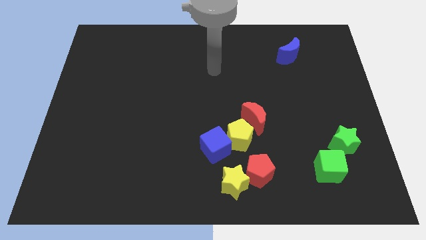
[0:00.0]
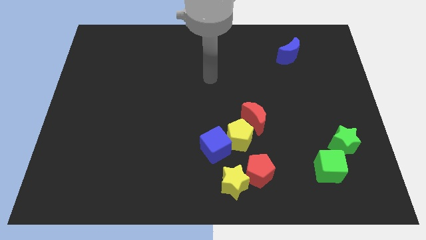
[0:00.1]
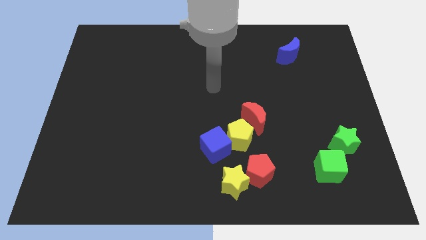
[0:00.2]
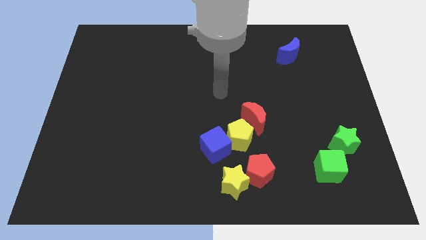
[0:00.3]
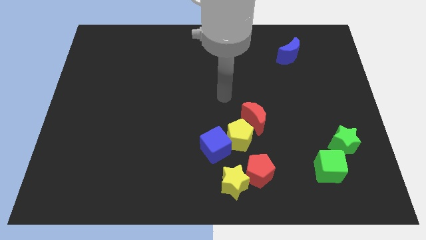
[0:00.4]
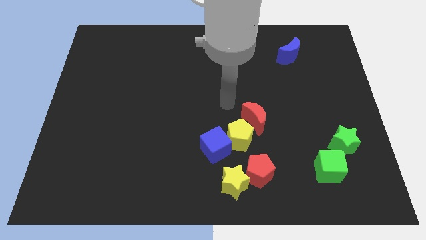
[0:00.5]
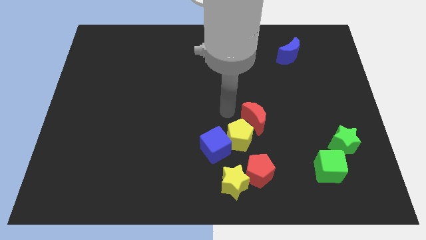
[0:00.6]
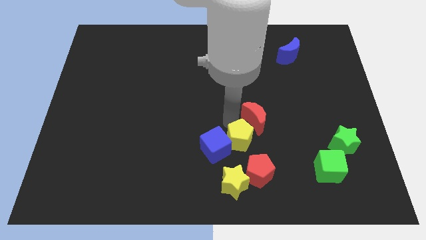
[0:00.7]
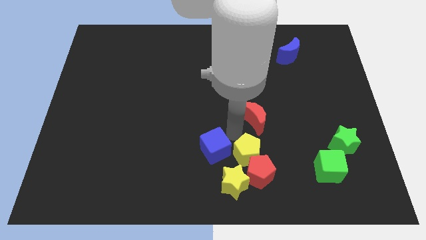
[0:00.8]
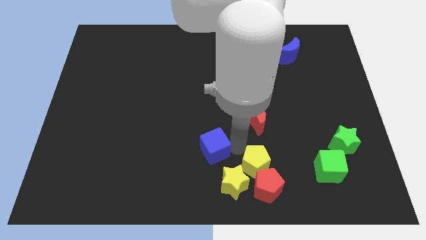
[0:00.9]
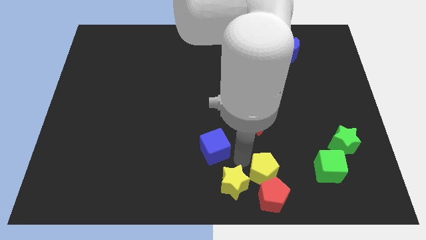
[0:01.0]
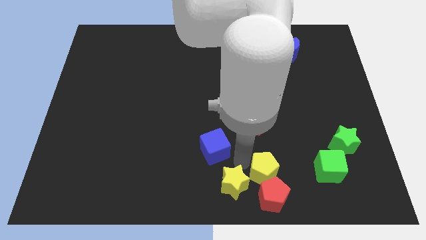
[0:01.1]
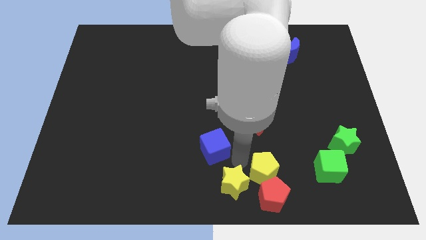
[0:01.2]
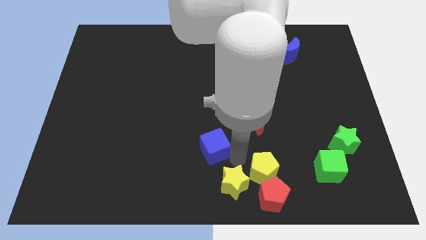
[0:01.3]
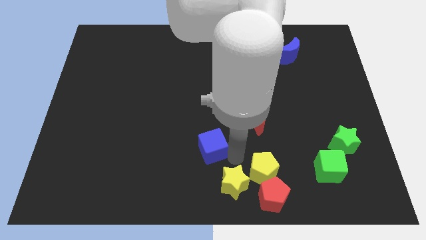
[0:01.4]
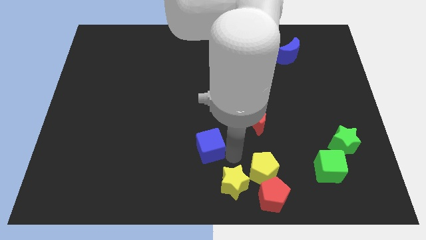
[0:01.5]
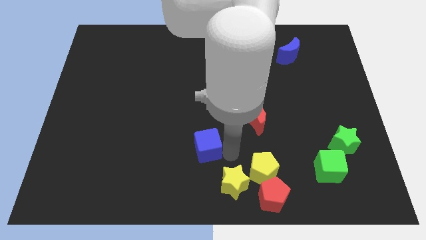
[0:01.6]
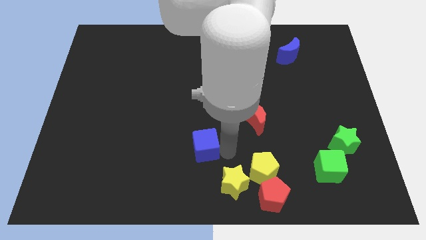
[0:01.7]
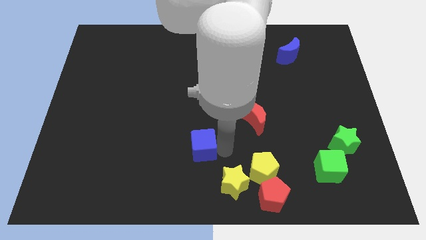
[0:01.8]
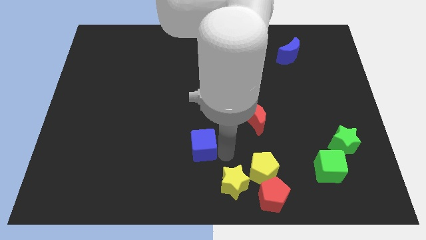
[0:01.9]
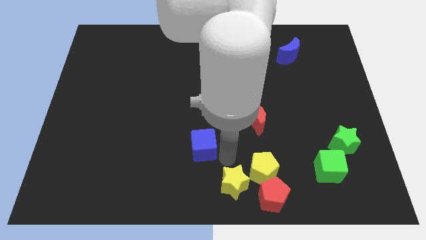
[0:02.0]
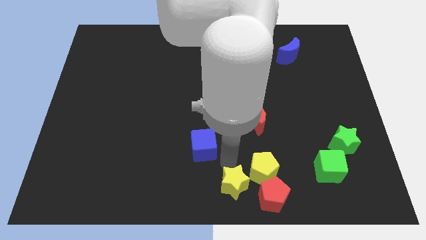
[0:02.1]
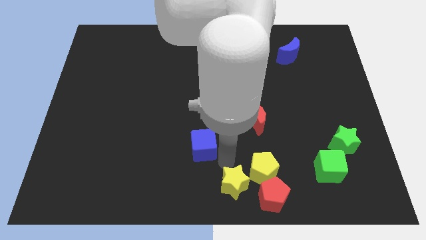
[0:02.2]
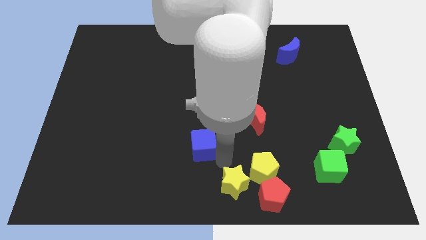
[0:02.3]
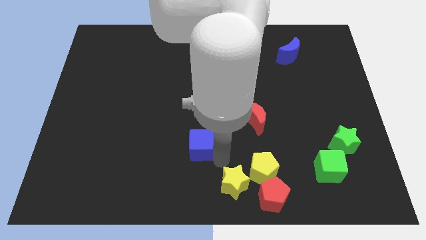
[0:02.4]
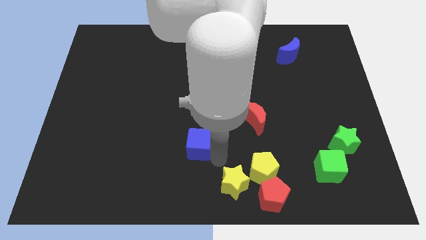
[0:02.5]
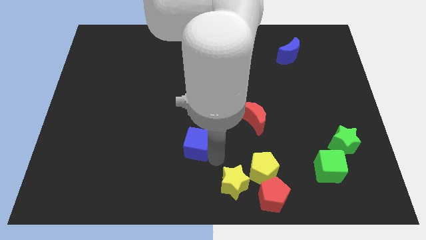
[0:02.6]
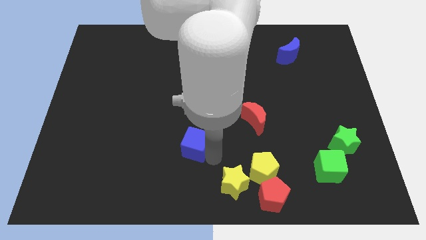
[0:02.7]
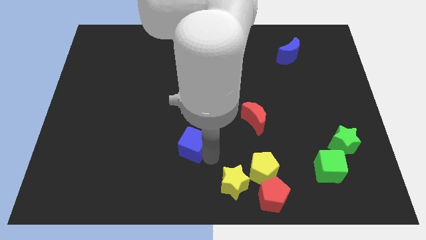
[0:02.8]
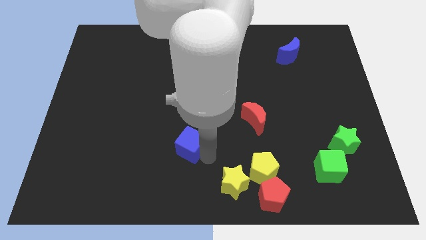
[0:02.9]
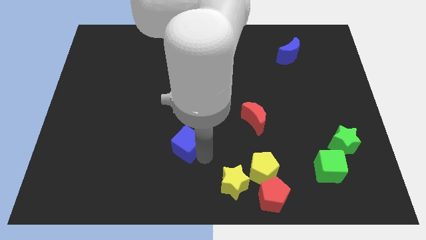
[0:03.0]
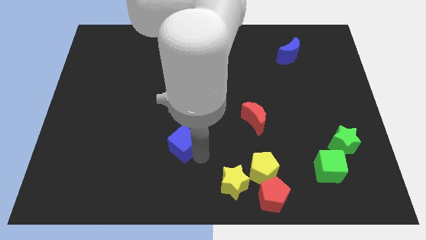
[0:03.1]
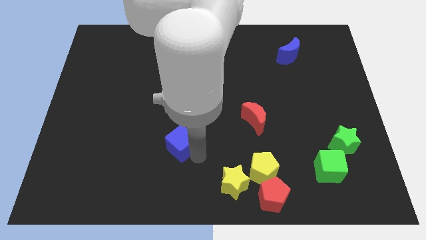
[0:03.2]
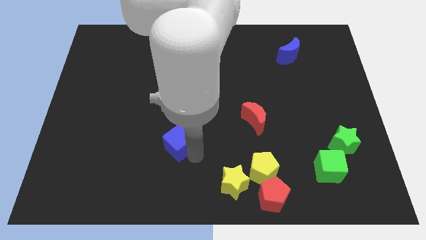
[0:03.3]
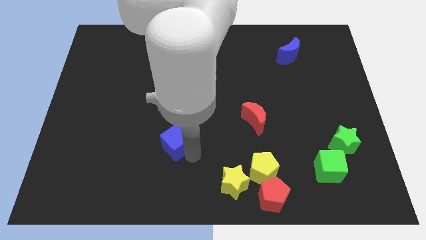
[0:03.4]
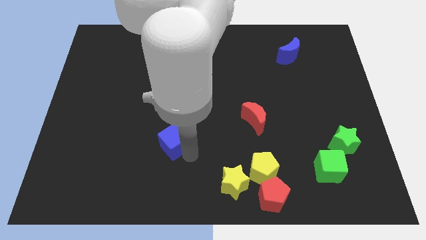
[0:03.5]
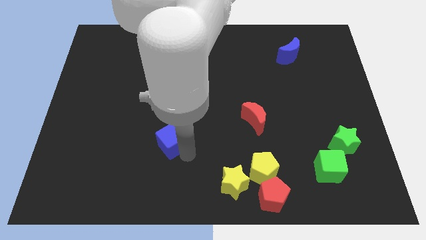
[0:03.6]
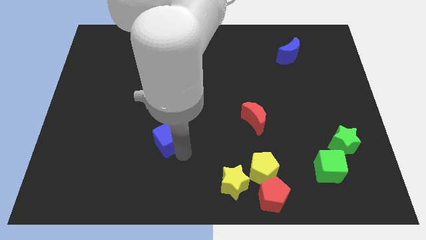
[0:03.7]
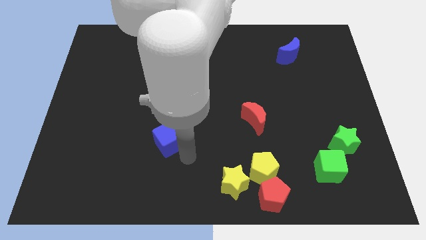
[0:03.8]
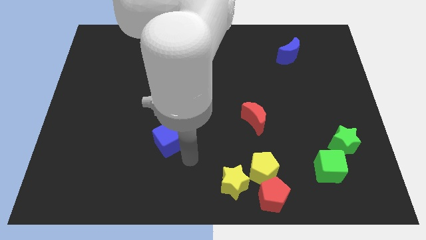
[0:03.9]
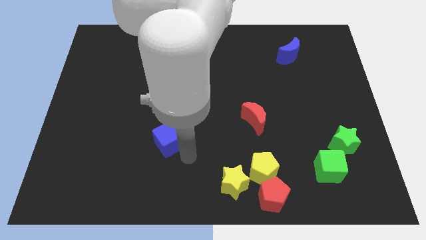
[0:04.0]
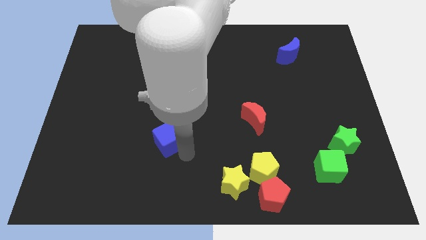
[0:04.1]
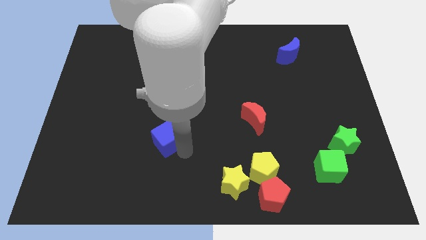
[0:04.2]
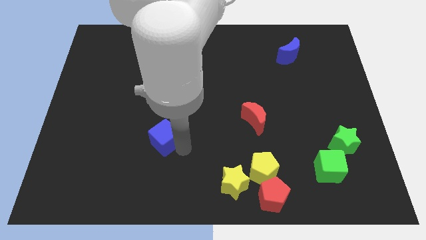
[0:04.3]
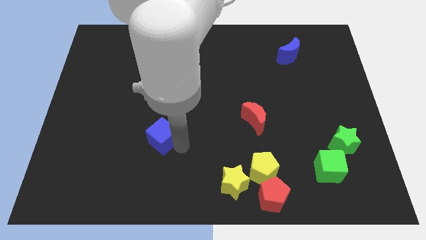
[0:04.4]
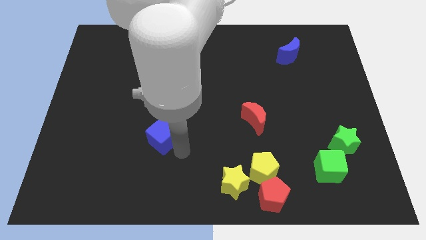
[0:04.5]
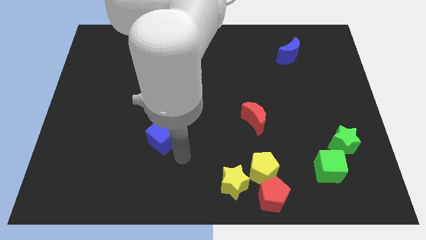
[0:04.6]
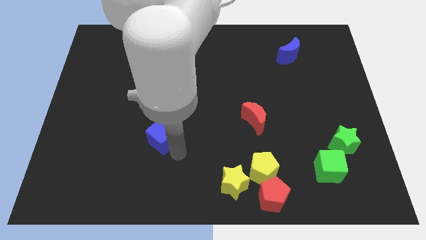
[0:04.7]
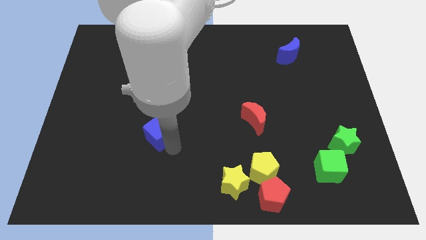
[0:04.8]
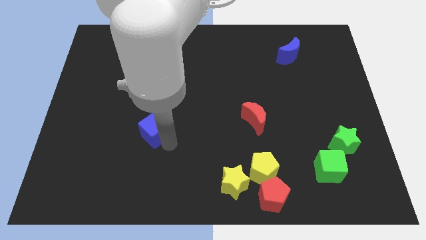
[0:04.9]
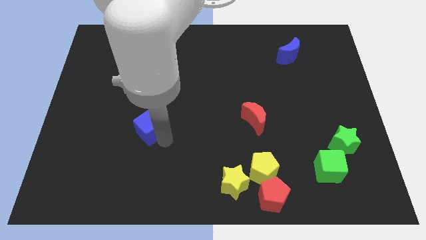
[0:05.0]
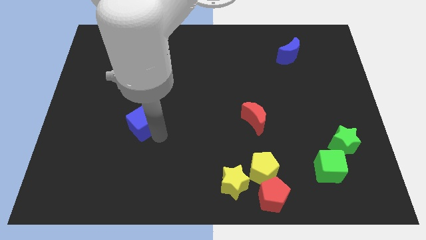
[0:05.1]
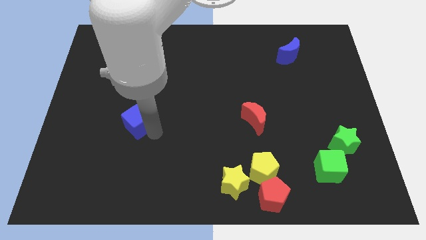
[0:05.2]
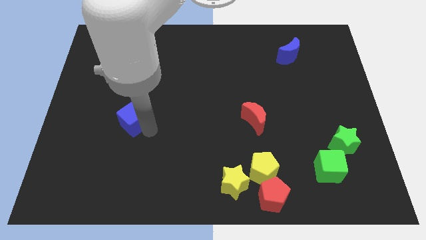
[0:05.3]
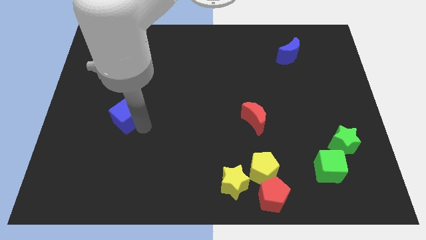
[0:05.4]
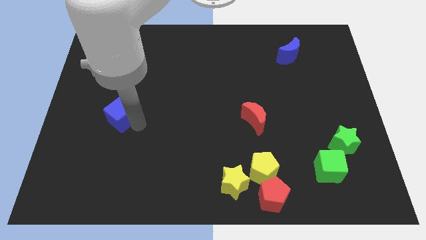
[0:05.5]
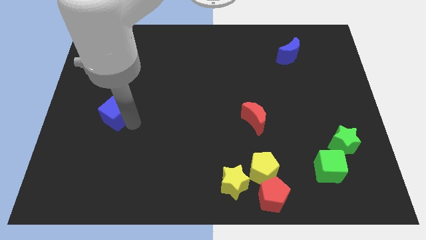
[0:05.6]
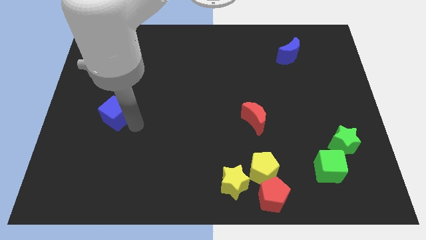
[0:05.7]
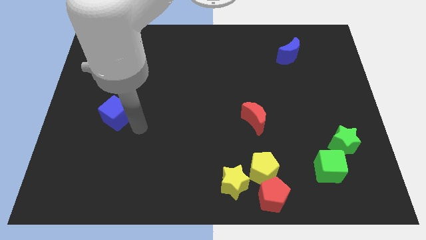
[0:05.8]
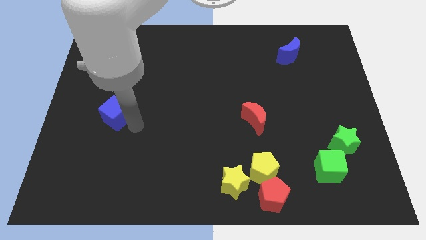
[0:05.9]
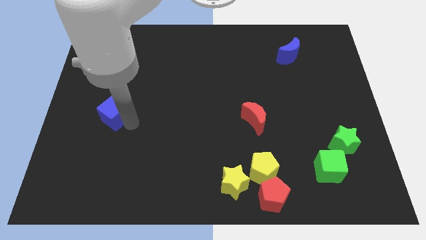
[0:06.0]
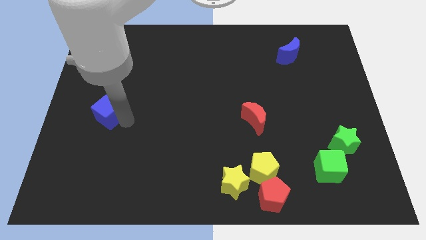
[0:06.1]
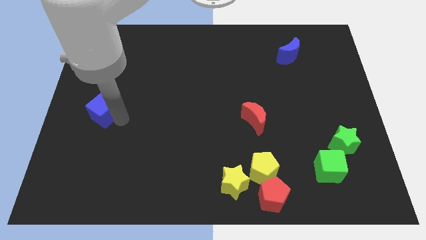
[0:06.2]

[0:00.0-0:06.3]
put the blue cube to the center left
